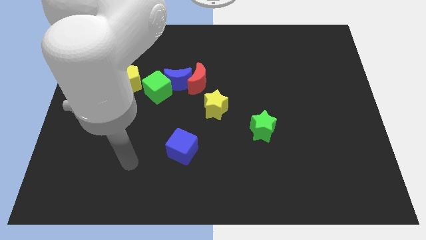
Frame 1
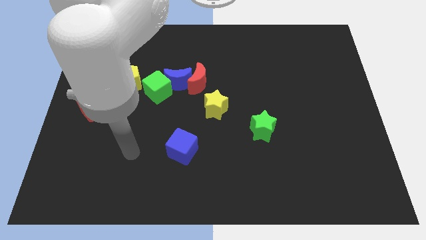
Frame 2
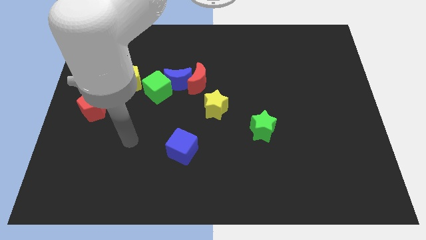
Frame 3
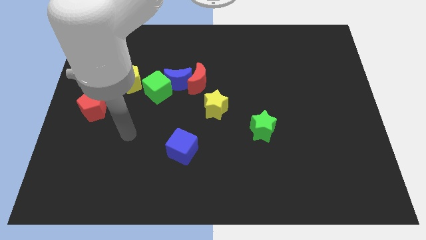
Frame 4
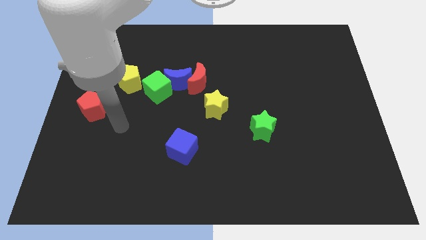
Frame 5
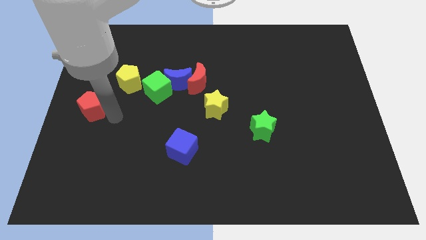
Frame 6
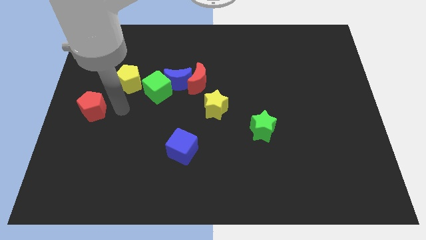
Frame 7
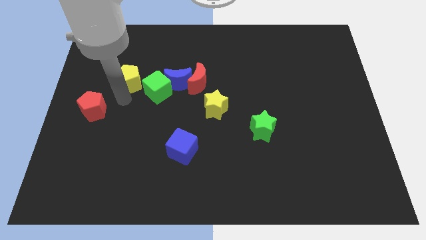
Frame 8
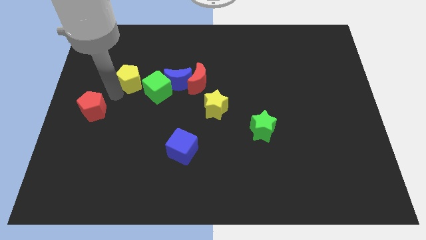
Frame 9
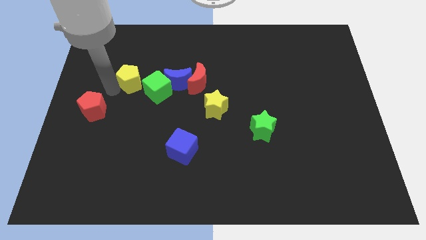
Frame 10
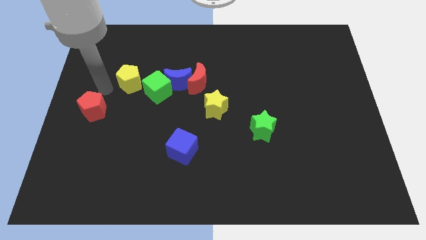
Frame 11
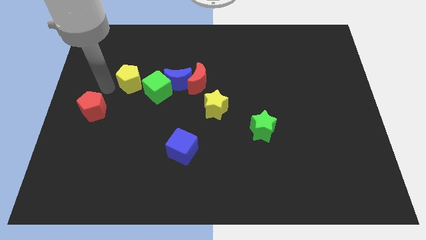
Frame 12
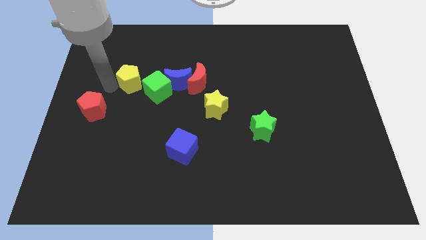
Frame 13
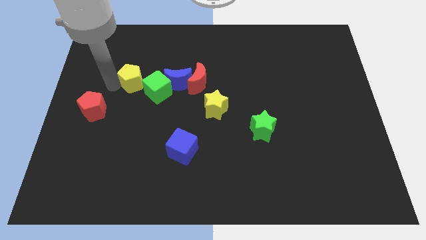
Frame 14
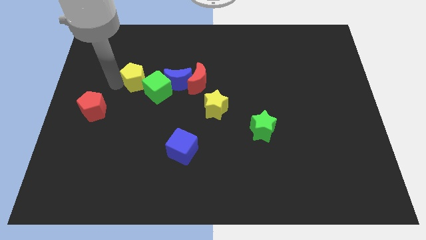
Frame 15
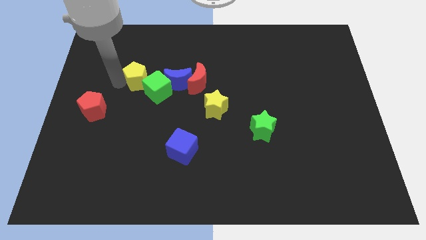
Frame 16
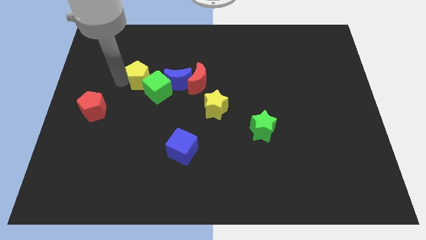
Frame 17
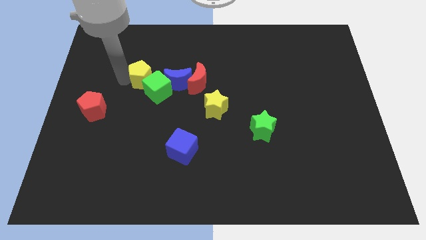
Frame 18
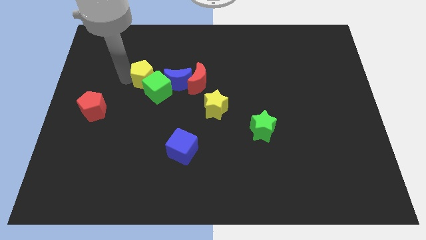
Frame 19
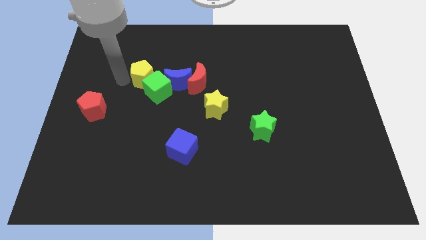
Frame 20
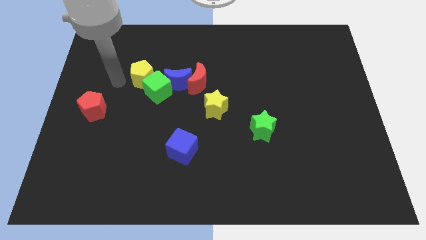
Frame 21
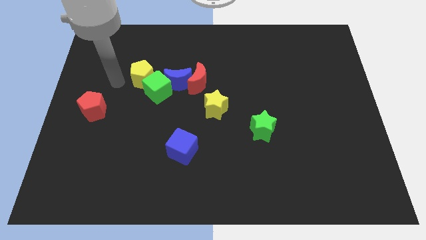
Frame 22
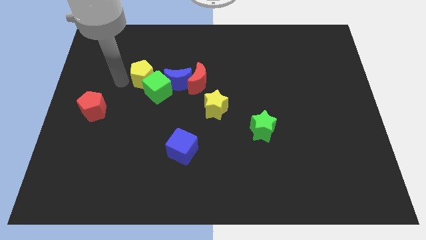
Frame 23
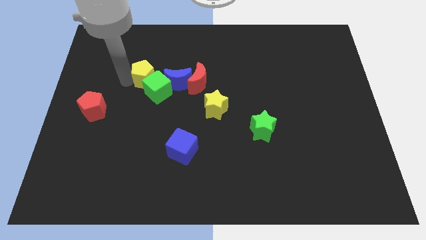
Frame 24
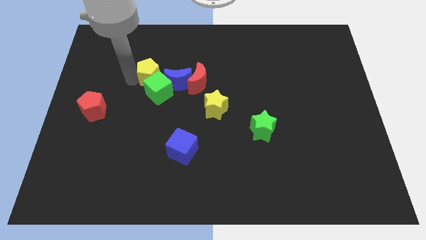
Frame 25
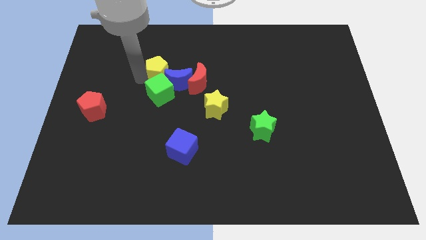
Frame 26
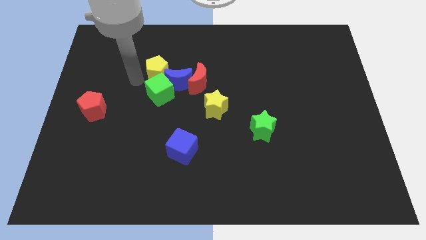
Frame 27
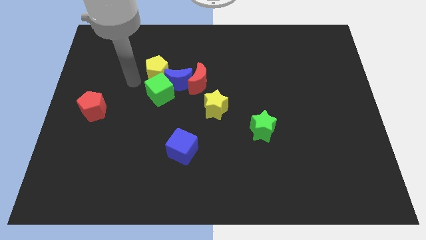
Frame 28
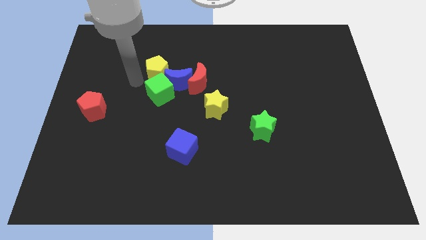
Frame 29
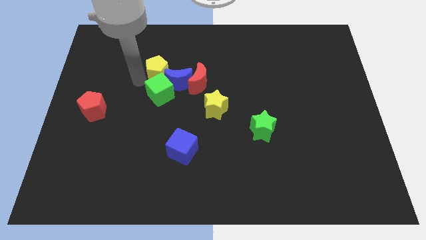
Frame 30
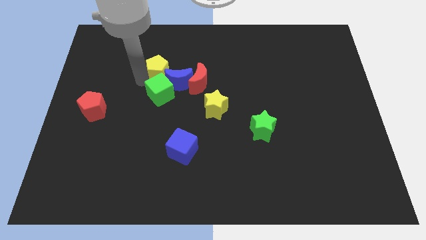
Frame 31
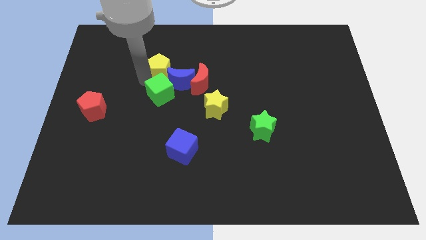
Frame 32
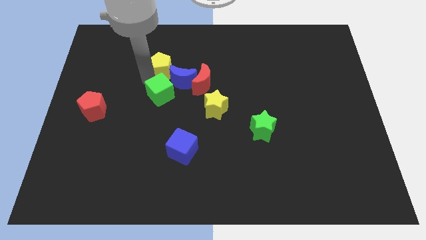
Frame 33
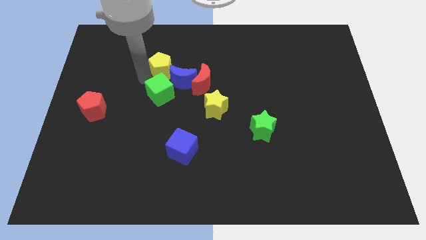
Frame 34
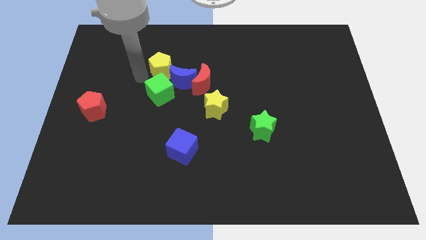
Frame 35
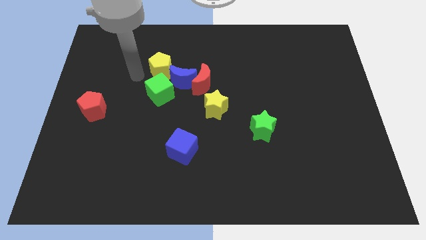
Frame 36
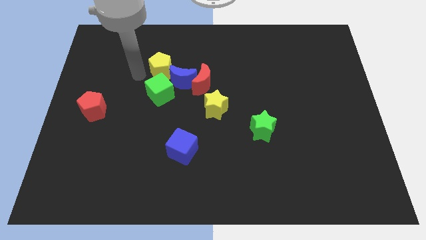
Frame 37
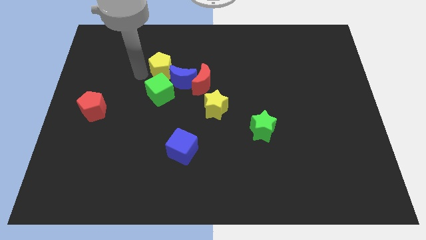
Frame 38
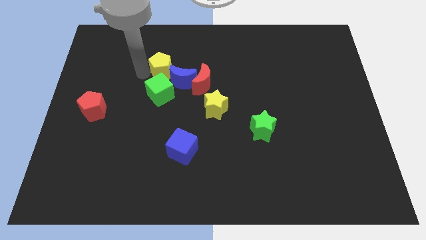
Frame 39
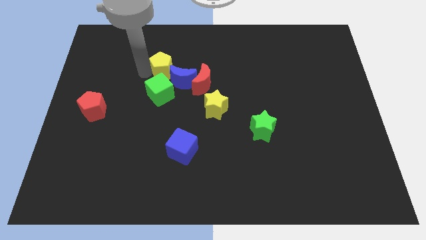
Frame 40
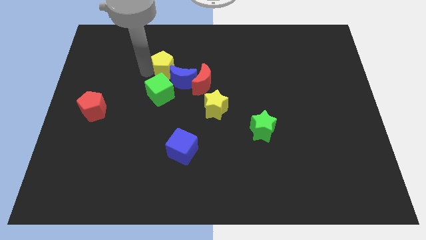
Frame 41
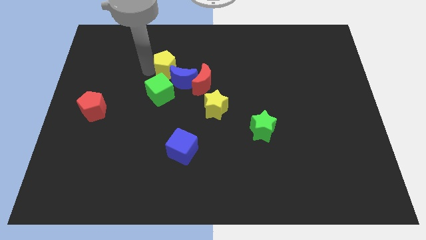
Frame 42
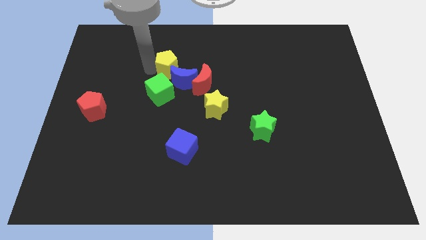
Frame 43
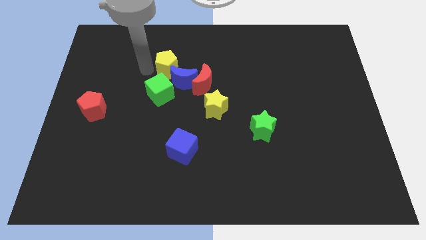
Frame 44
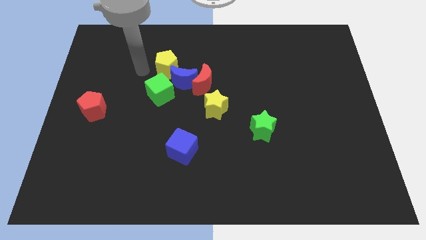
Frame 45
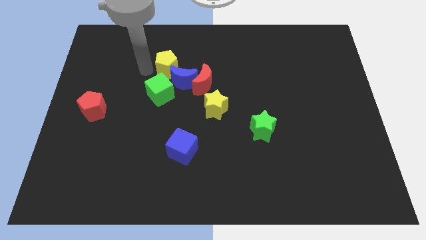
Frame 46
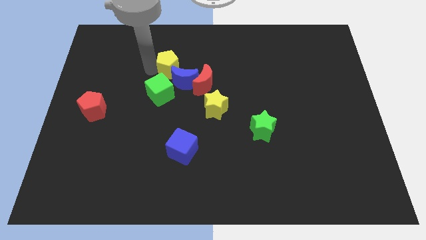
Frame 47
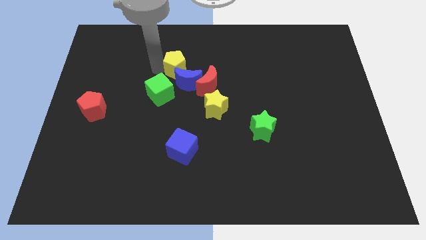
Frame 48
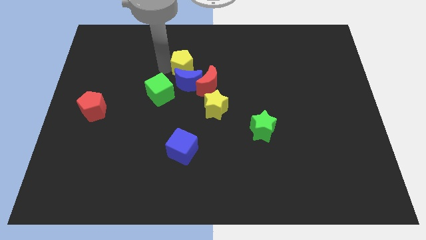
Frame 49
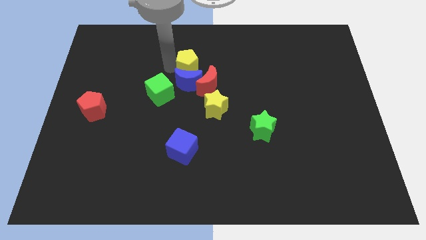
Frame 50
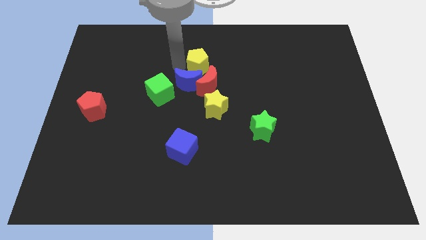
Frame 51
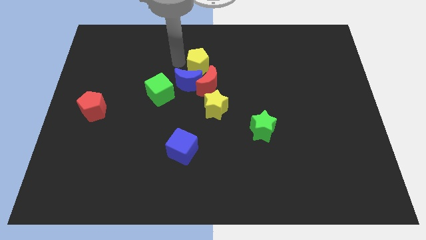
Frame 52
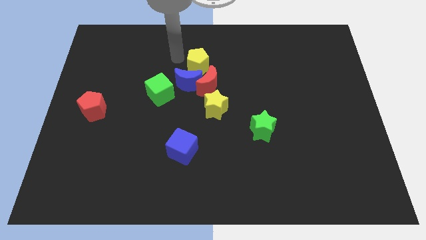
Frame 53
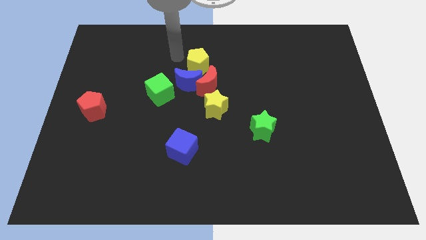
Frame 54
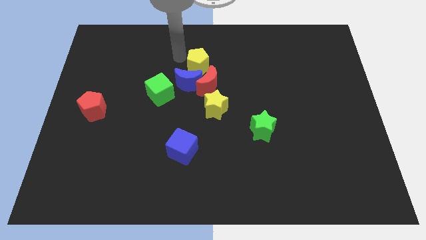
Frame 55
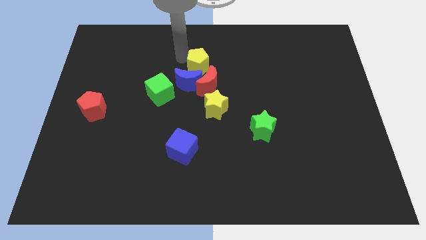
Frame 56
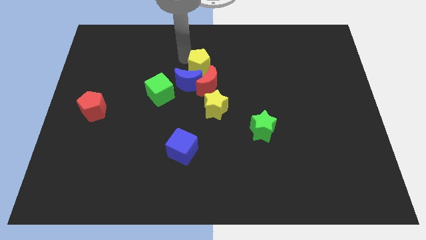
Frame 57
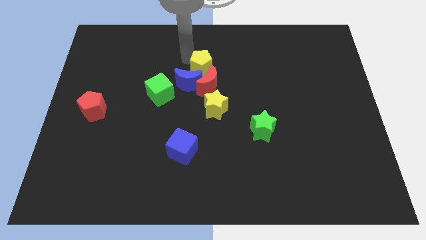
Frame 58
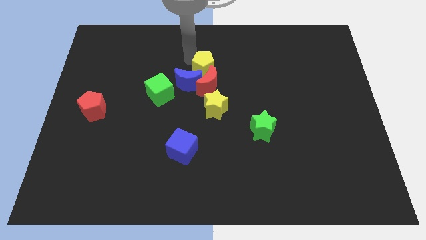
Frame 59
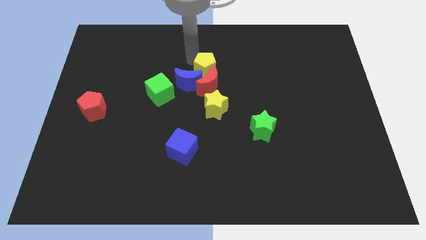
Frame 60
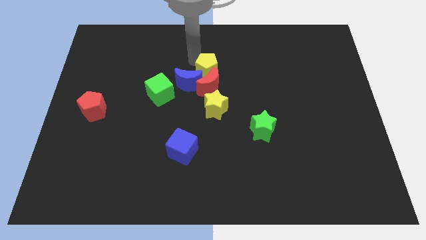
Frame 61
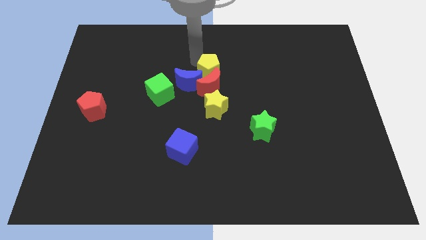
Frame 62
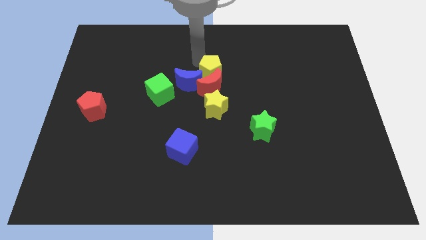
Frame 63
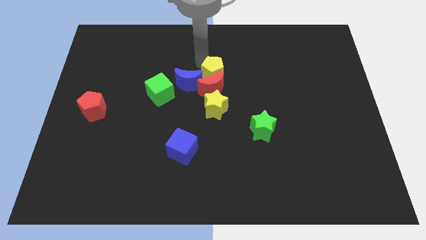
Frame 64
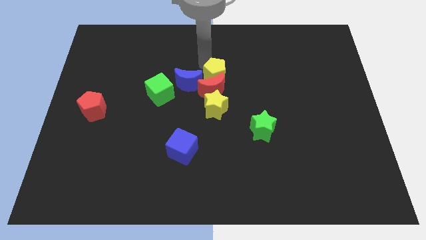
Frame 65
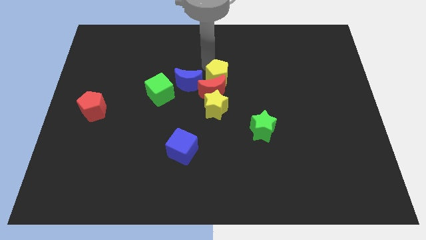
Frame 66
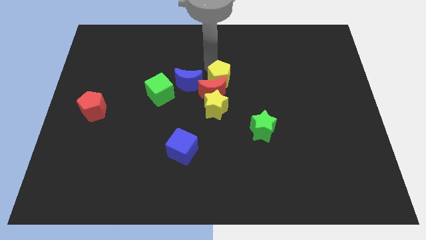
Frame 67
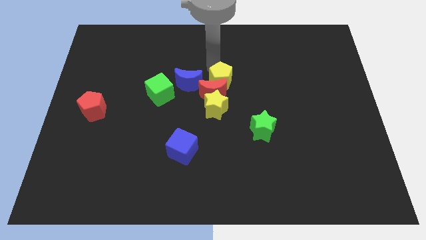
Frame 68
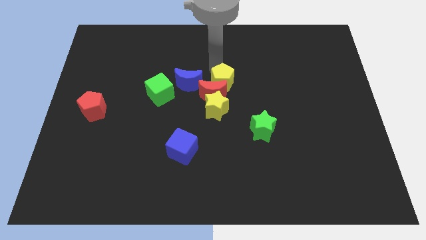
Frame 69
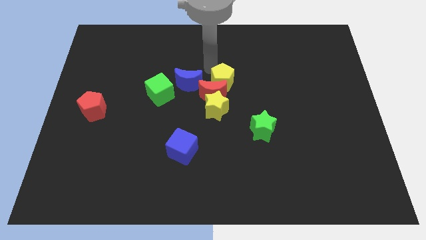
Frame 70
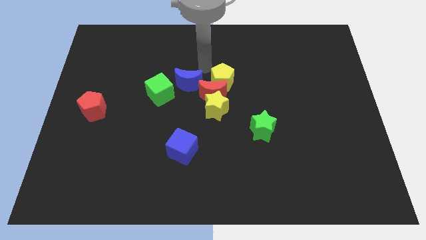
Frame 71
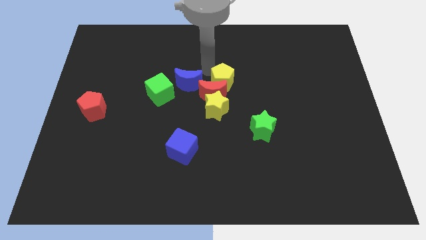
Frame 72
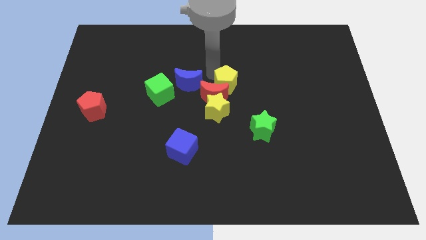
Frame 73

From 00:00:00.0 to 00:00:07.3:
put the yellow pentagon diagonally up and to the right of the yellow star

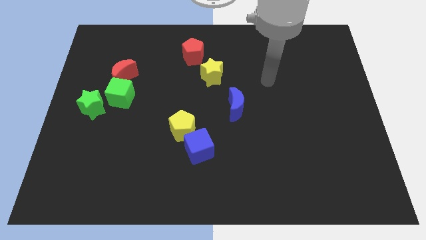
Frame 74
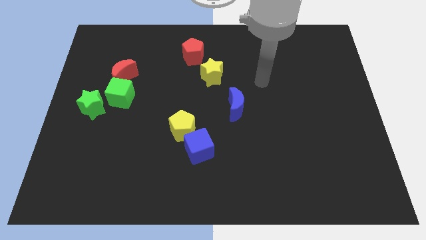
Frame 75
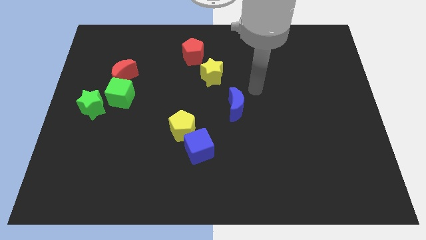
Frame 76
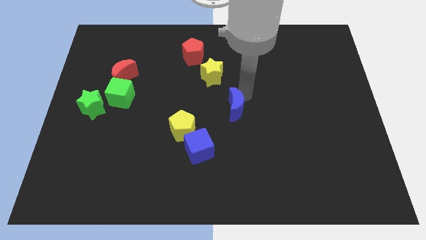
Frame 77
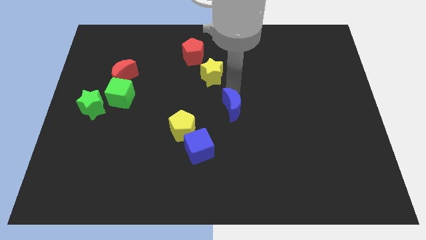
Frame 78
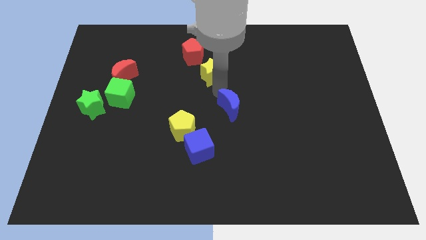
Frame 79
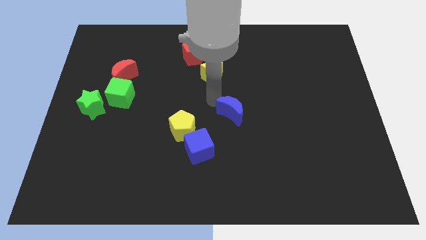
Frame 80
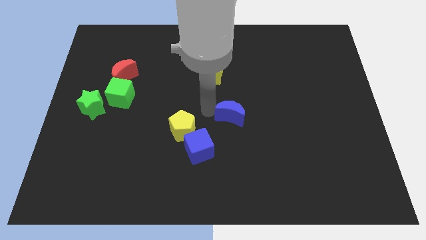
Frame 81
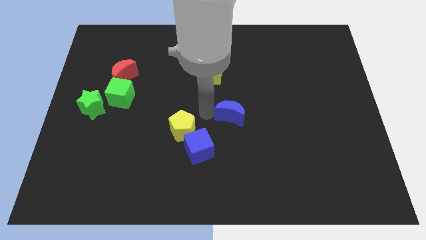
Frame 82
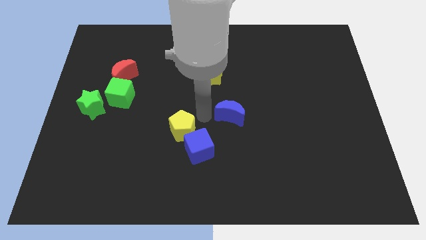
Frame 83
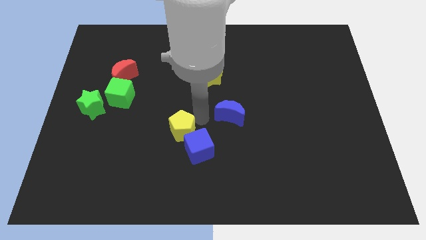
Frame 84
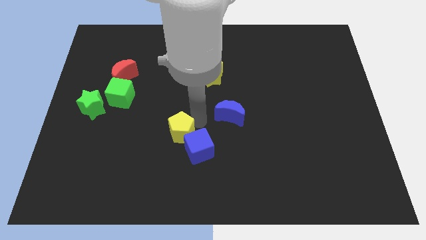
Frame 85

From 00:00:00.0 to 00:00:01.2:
move the yellow pentagon just left of the blue cube
